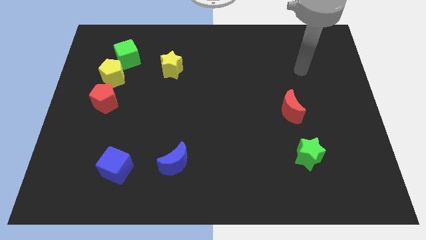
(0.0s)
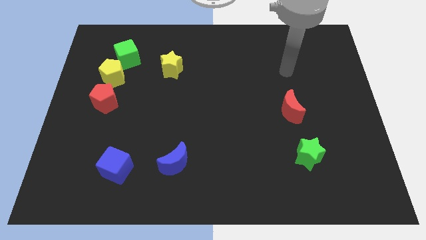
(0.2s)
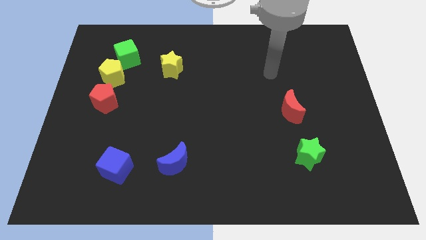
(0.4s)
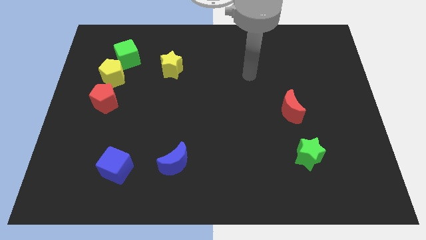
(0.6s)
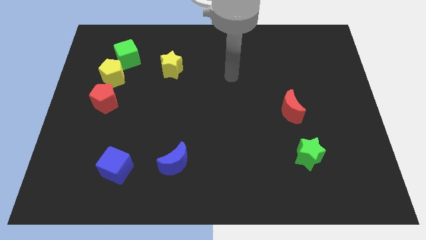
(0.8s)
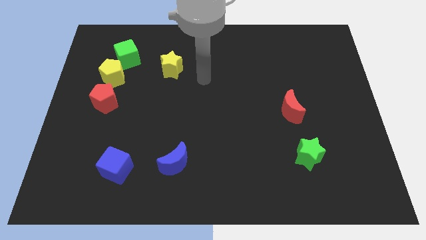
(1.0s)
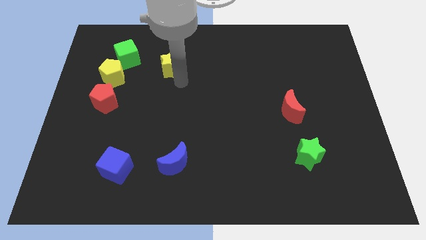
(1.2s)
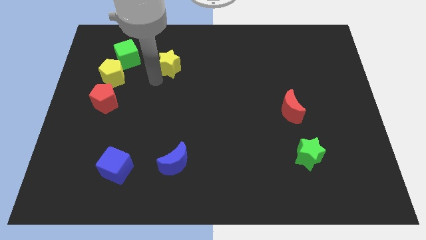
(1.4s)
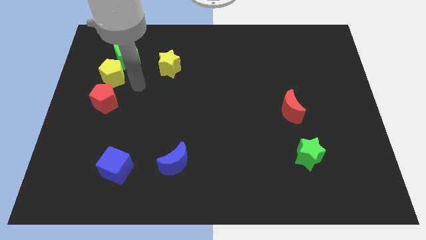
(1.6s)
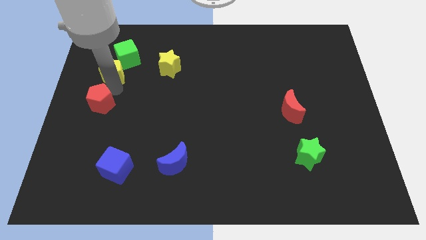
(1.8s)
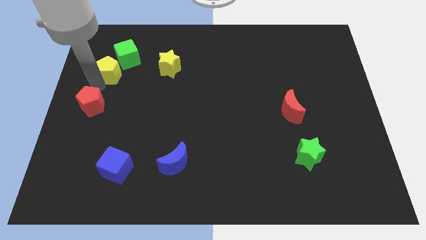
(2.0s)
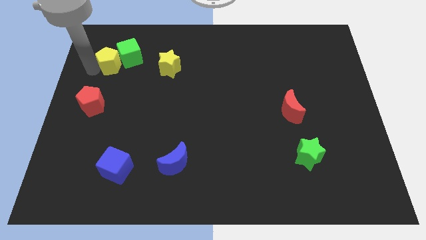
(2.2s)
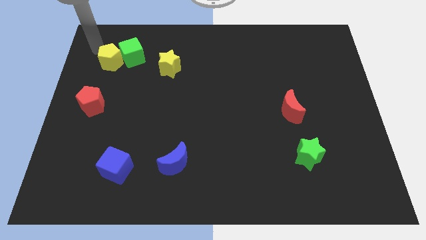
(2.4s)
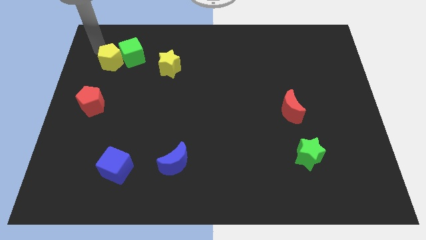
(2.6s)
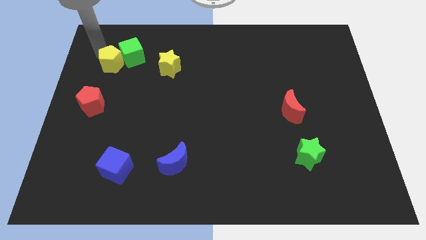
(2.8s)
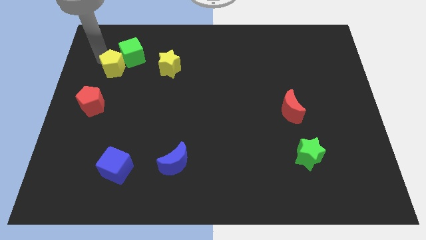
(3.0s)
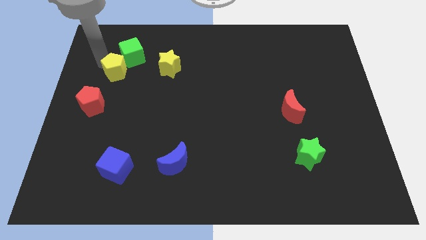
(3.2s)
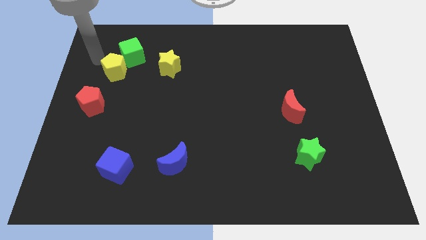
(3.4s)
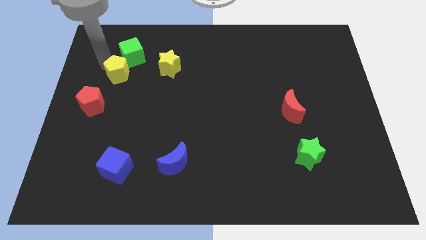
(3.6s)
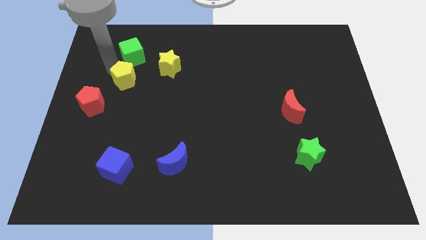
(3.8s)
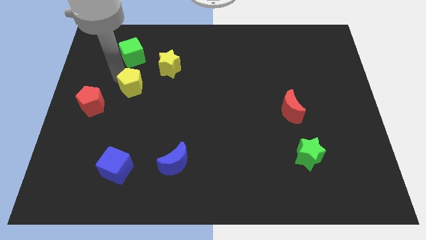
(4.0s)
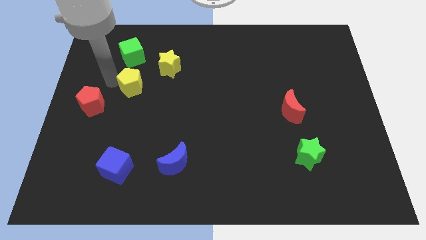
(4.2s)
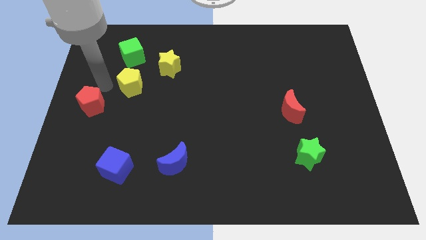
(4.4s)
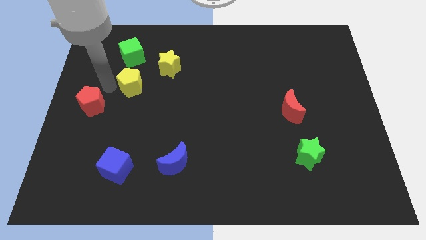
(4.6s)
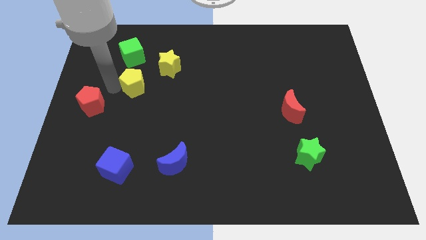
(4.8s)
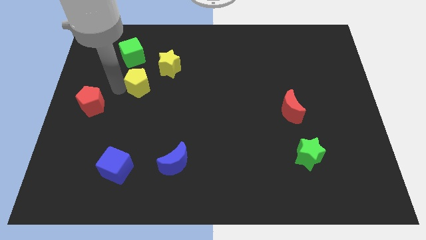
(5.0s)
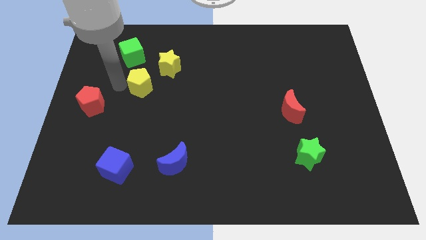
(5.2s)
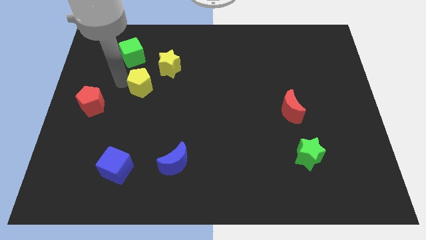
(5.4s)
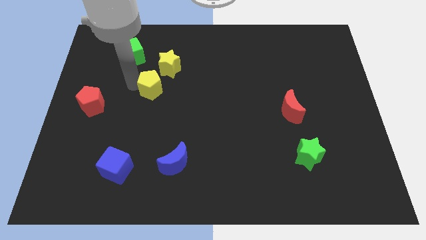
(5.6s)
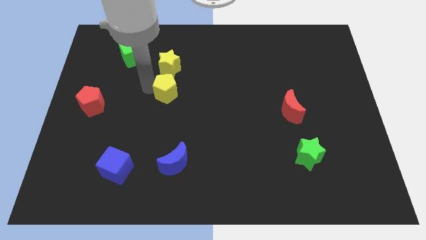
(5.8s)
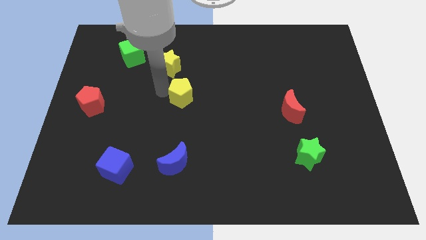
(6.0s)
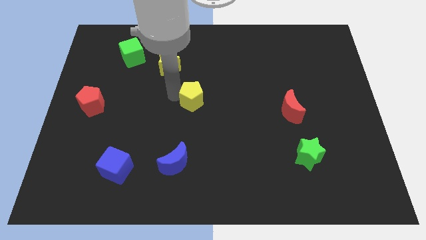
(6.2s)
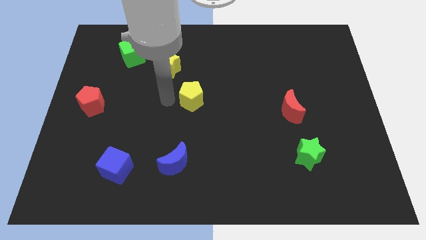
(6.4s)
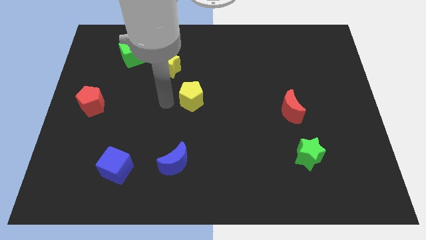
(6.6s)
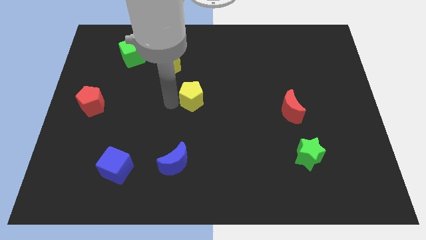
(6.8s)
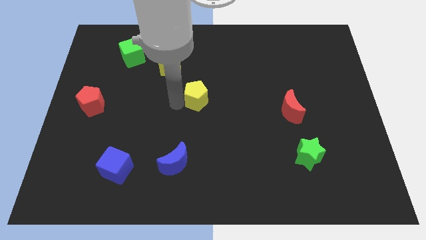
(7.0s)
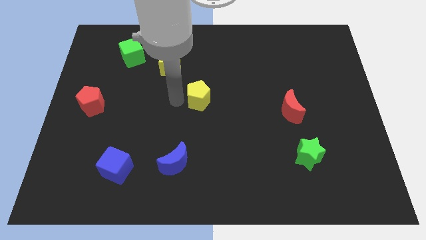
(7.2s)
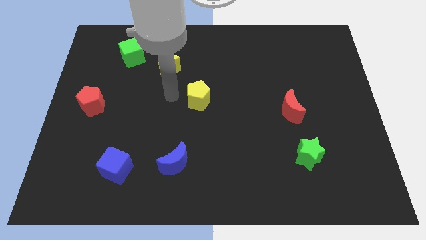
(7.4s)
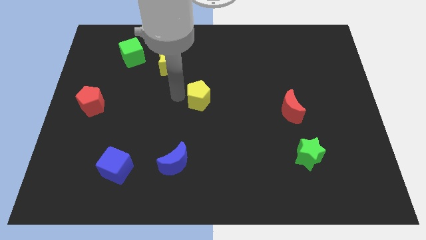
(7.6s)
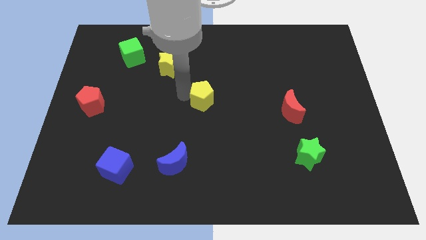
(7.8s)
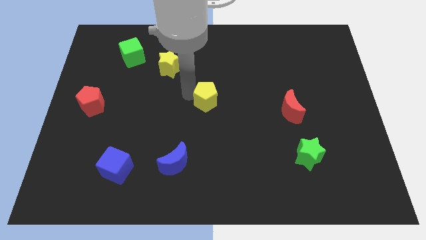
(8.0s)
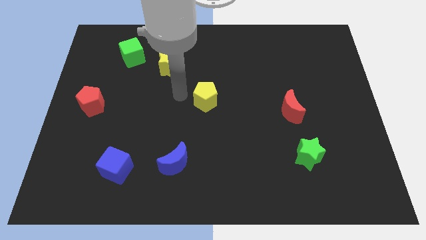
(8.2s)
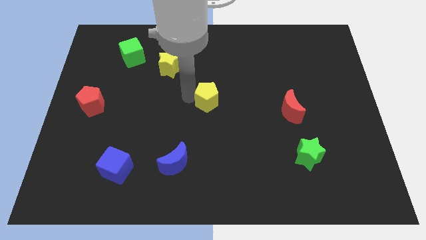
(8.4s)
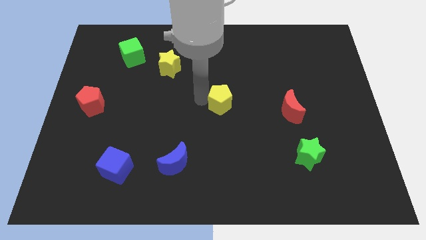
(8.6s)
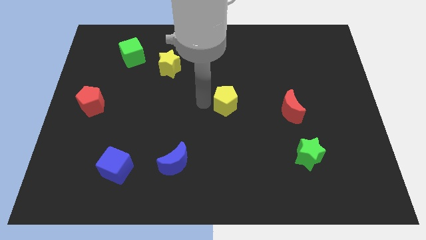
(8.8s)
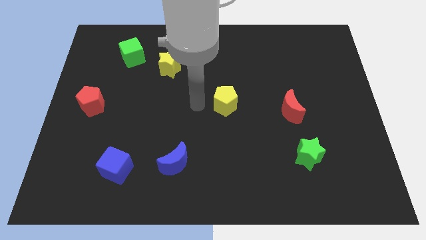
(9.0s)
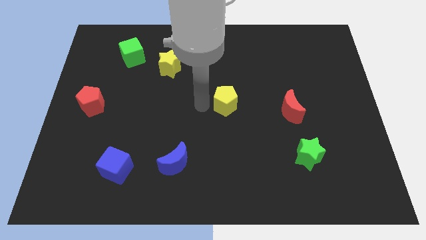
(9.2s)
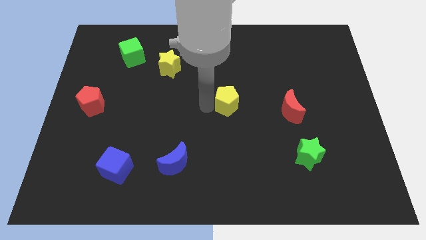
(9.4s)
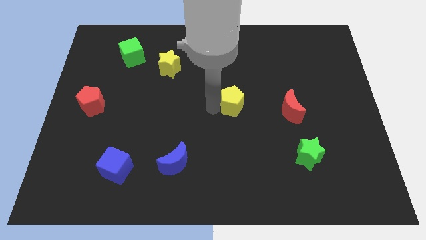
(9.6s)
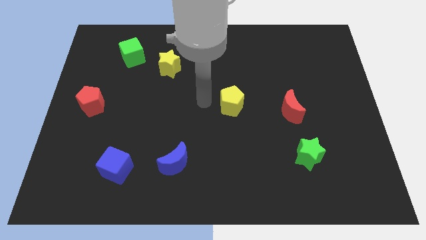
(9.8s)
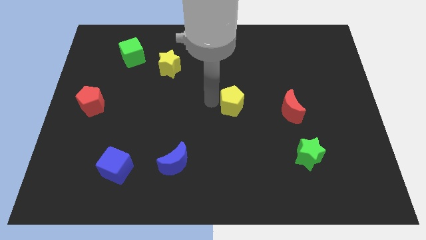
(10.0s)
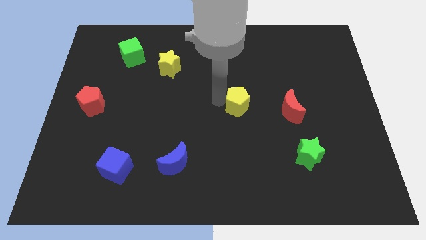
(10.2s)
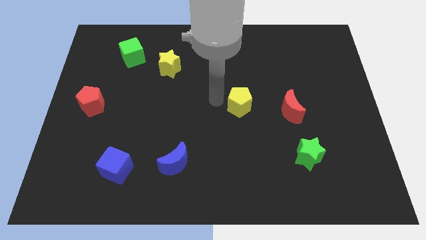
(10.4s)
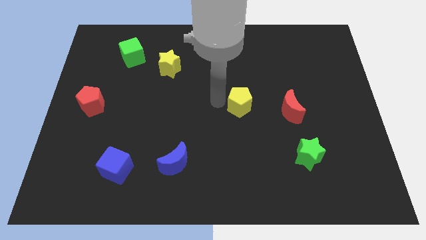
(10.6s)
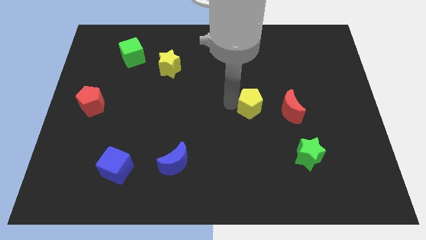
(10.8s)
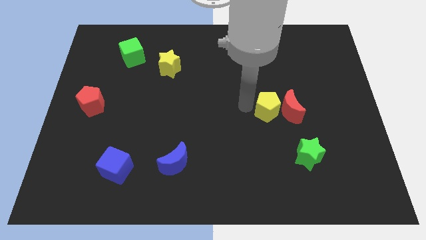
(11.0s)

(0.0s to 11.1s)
move the yellow pentagon next to the red moon

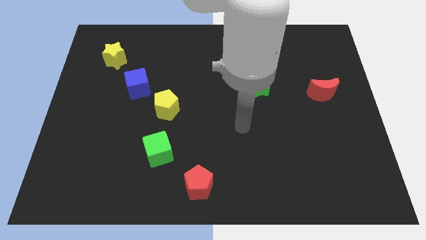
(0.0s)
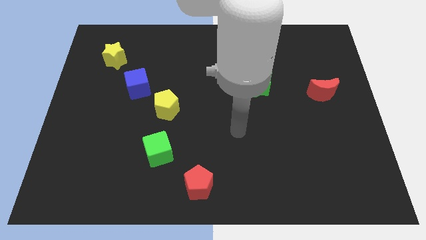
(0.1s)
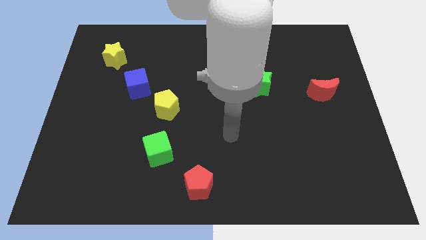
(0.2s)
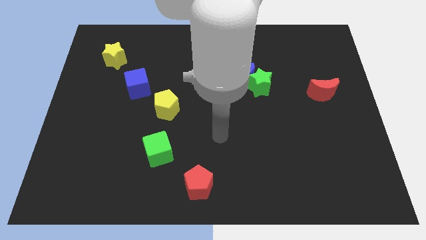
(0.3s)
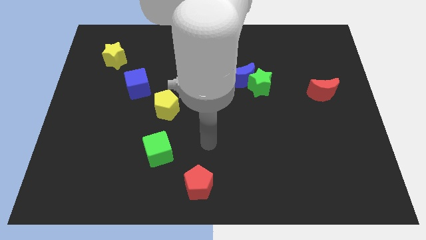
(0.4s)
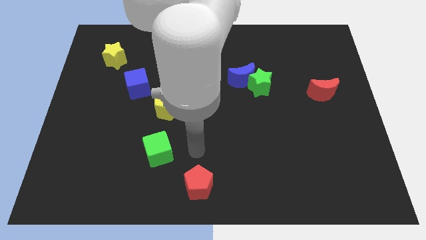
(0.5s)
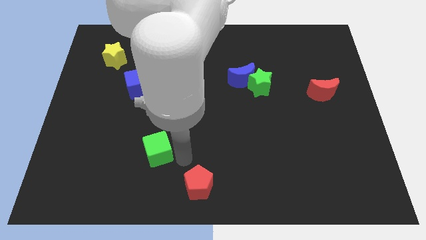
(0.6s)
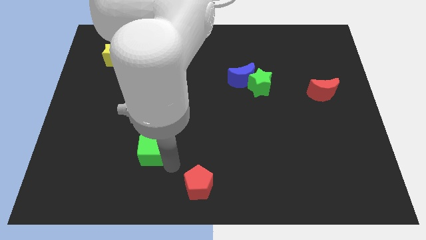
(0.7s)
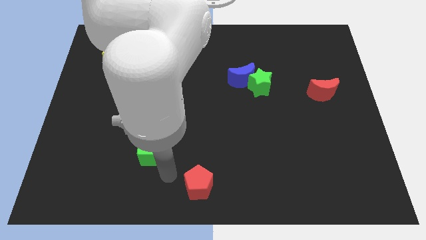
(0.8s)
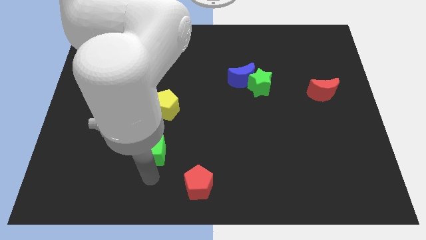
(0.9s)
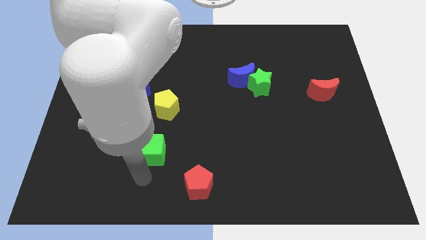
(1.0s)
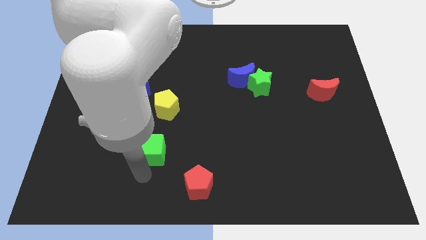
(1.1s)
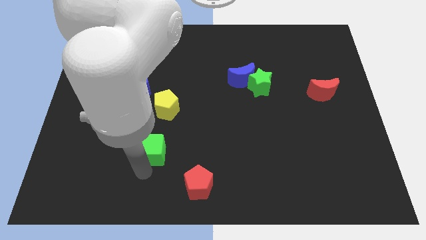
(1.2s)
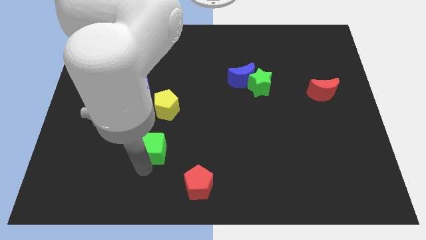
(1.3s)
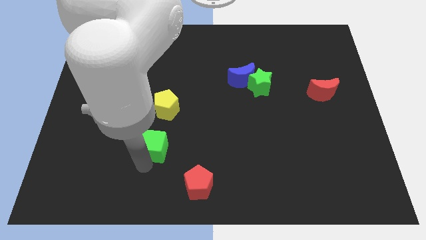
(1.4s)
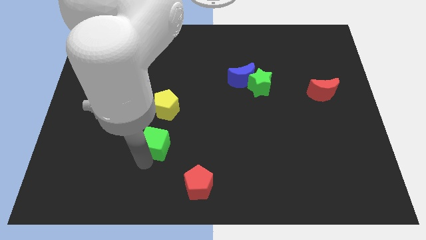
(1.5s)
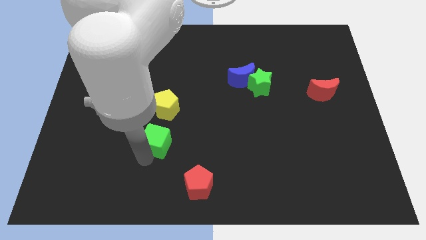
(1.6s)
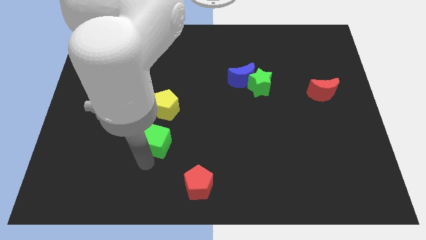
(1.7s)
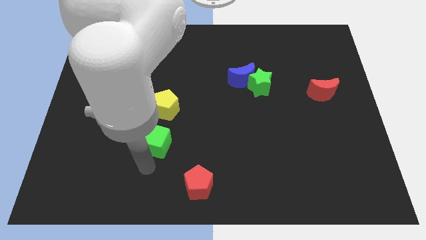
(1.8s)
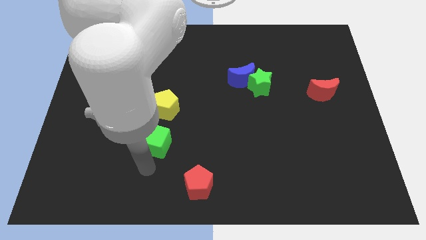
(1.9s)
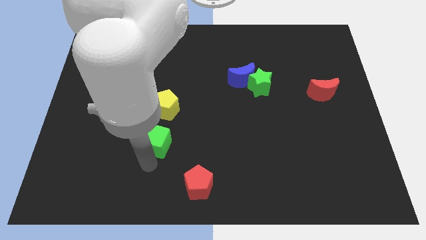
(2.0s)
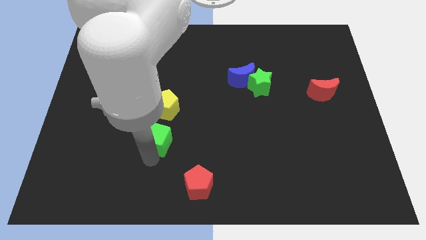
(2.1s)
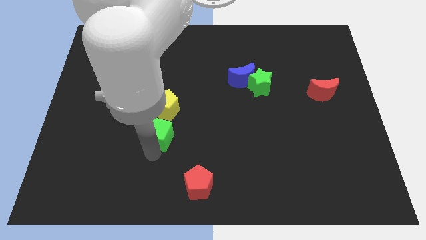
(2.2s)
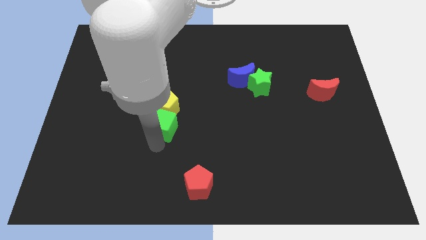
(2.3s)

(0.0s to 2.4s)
move the green cube towards the yellow pentagon
